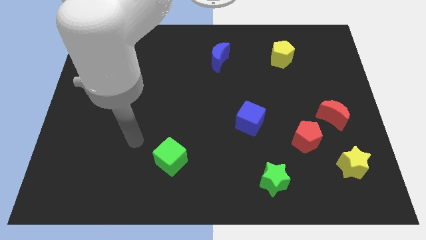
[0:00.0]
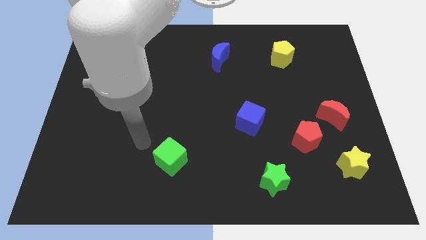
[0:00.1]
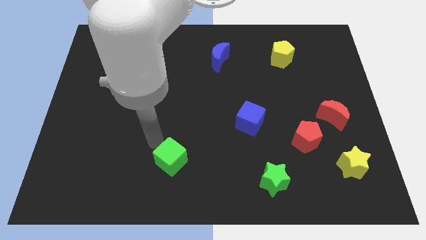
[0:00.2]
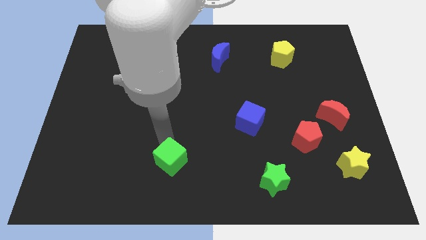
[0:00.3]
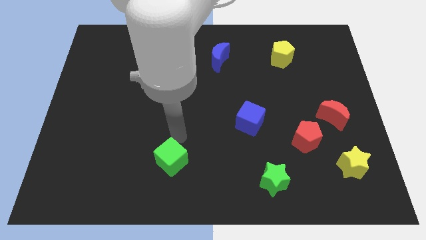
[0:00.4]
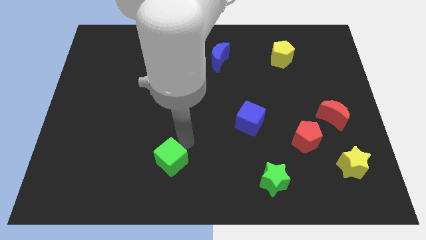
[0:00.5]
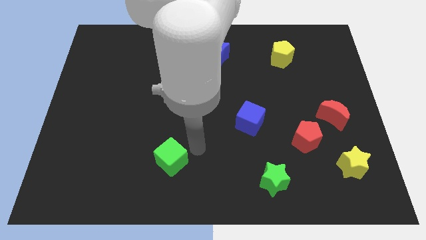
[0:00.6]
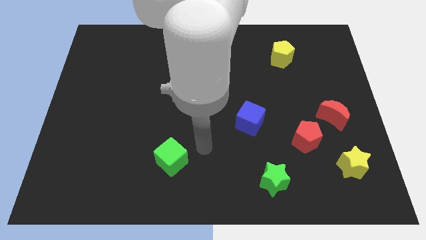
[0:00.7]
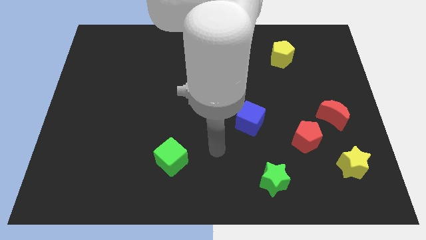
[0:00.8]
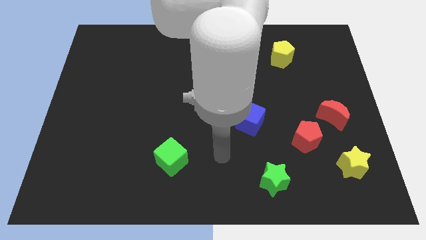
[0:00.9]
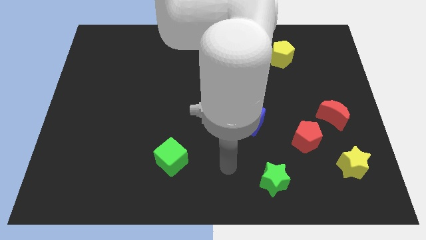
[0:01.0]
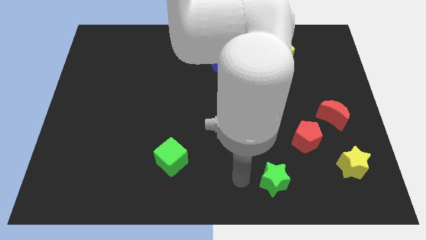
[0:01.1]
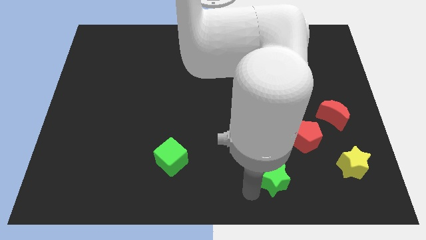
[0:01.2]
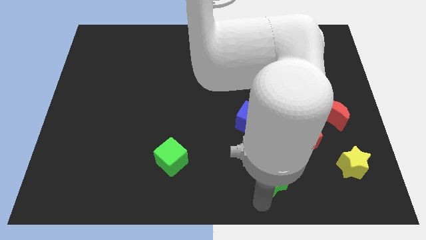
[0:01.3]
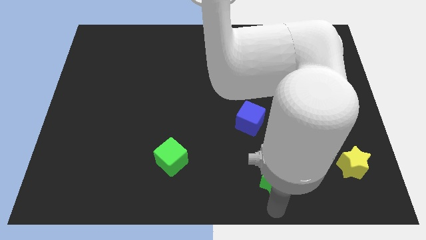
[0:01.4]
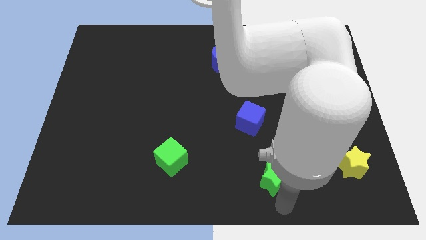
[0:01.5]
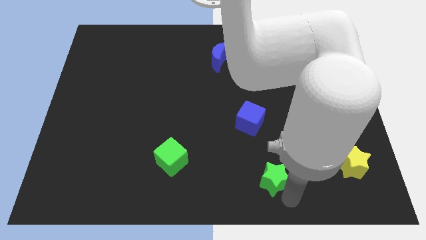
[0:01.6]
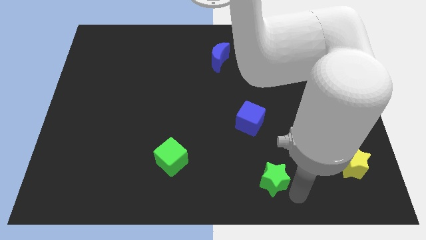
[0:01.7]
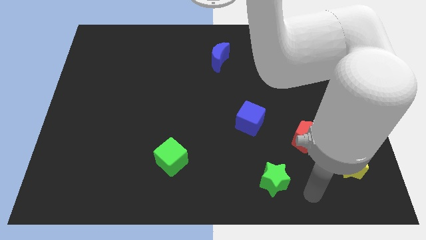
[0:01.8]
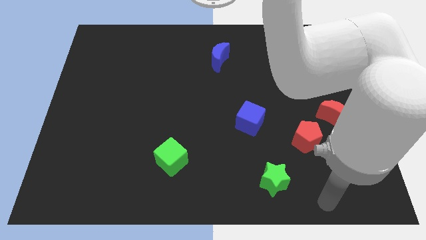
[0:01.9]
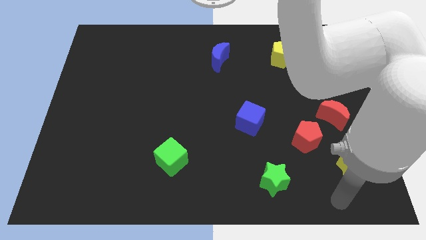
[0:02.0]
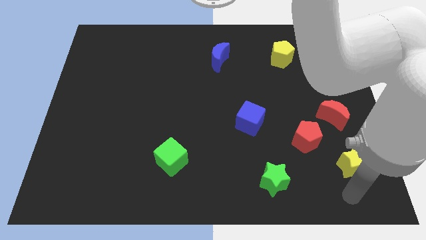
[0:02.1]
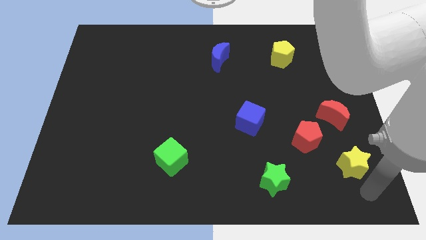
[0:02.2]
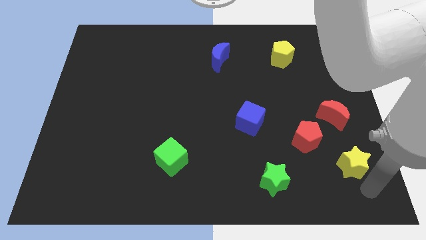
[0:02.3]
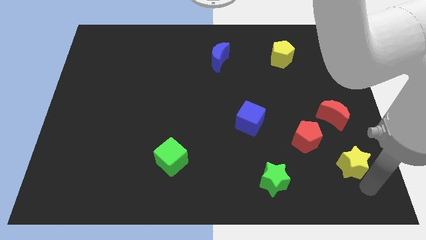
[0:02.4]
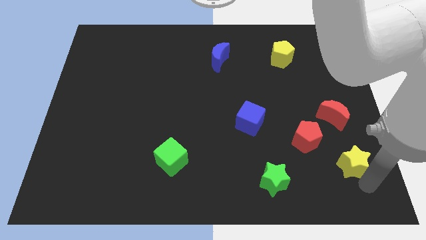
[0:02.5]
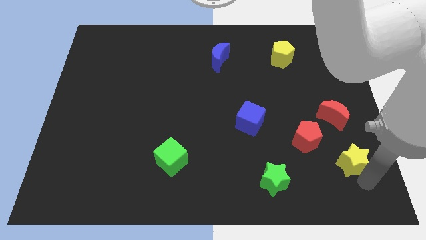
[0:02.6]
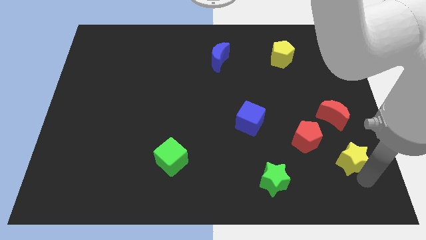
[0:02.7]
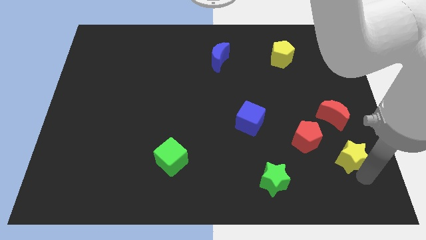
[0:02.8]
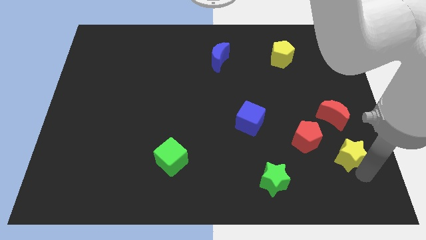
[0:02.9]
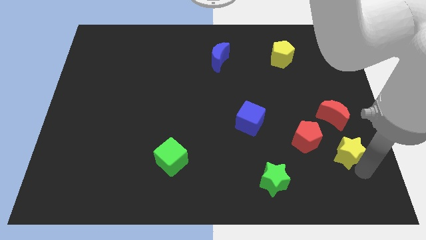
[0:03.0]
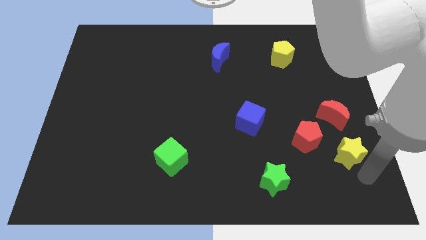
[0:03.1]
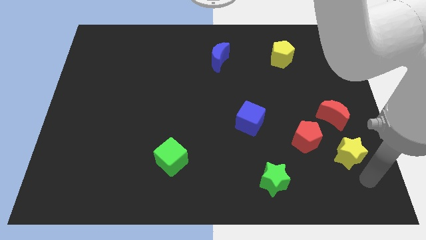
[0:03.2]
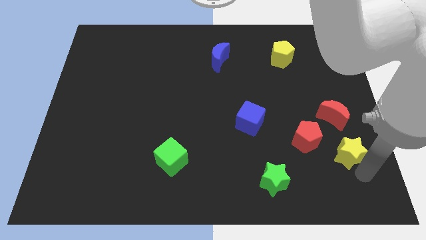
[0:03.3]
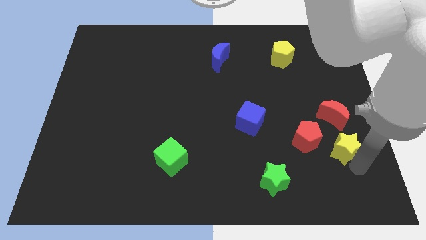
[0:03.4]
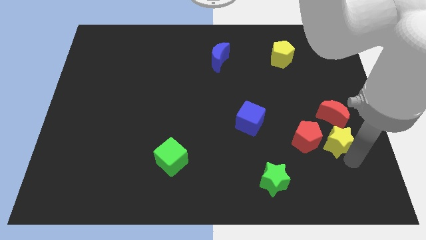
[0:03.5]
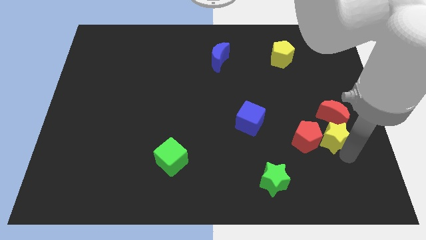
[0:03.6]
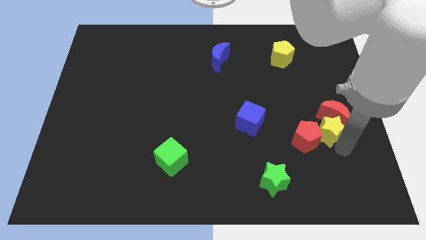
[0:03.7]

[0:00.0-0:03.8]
slide the yellow star diagonally upwards and to the left somewhat

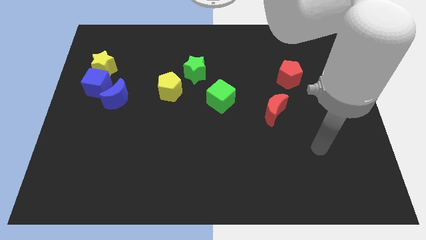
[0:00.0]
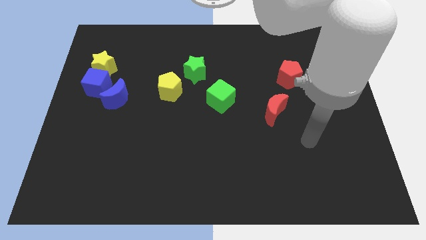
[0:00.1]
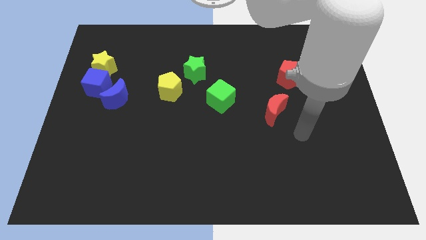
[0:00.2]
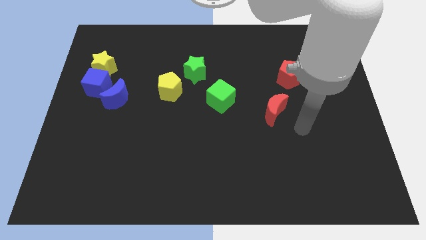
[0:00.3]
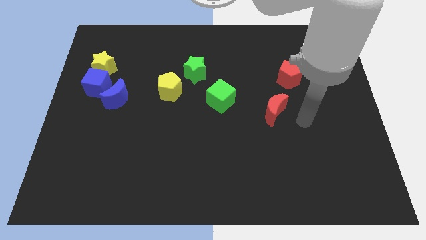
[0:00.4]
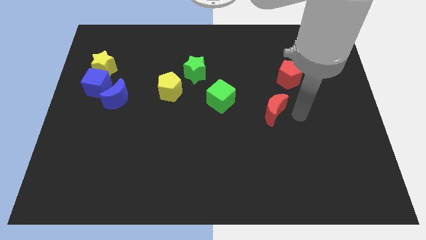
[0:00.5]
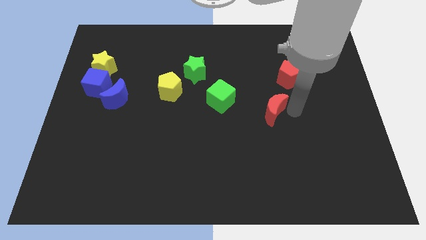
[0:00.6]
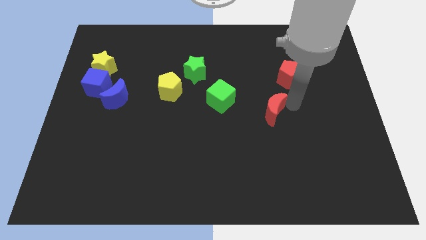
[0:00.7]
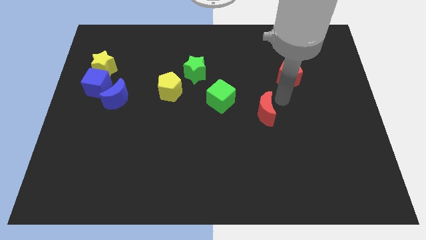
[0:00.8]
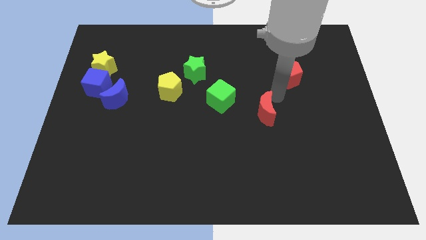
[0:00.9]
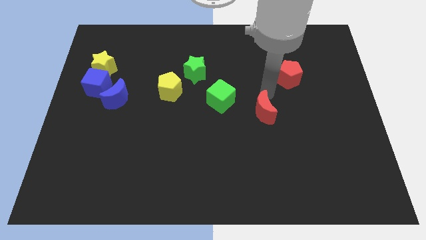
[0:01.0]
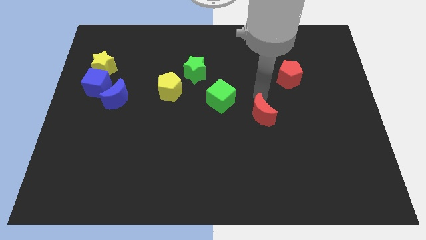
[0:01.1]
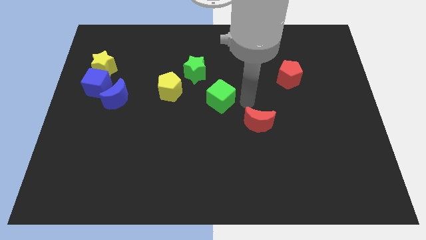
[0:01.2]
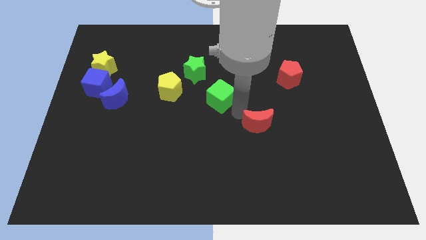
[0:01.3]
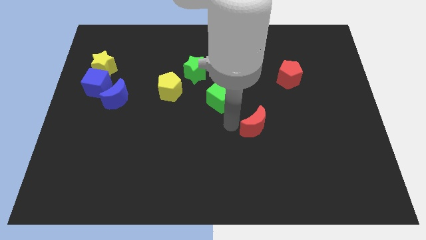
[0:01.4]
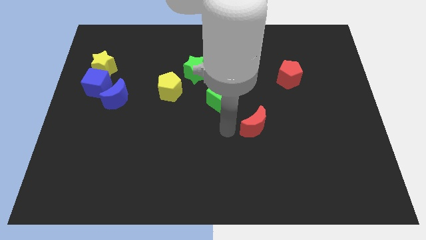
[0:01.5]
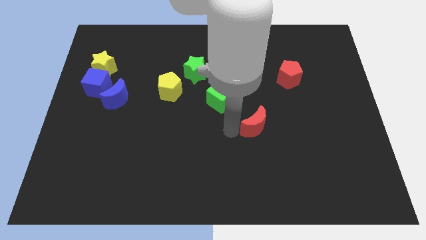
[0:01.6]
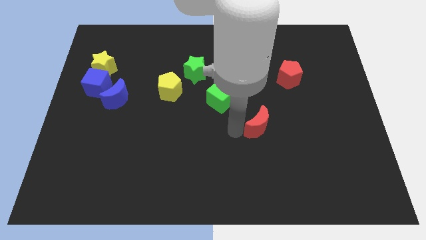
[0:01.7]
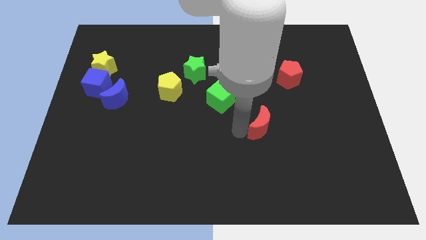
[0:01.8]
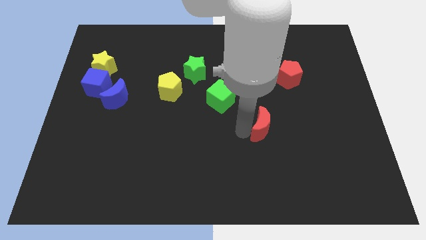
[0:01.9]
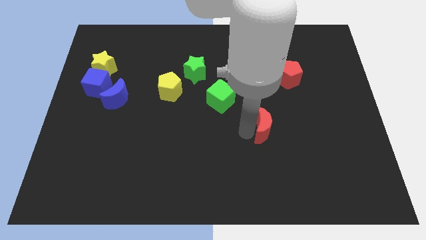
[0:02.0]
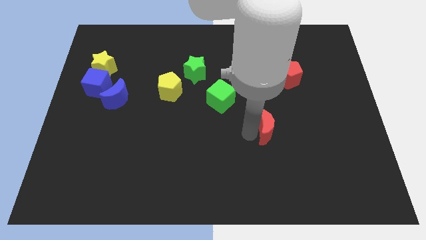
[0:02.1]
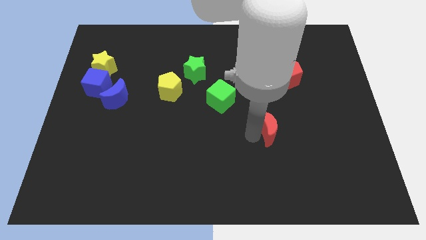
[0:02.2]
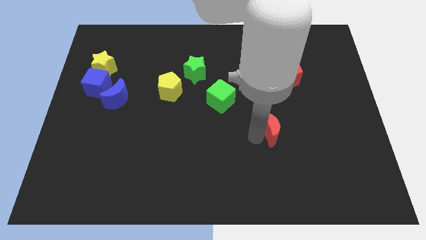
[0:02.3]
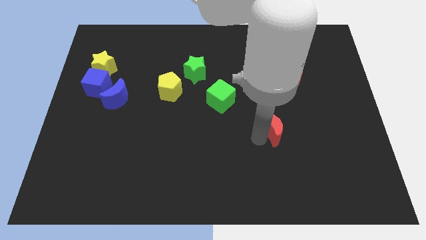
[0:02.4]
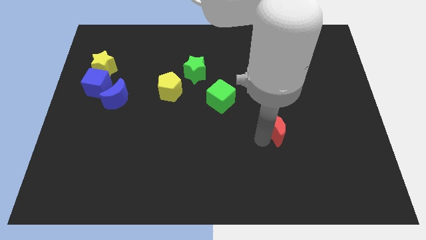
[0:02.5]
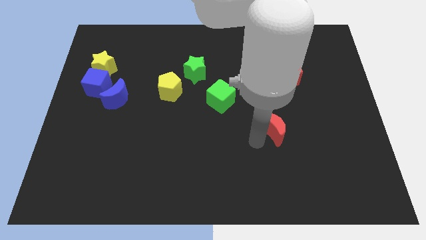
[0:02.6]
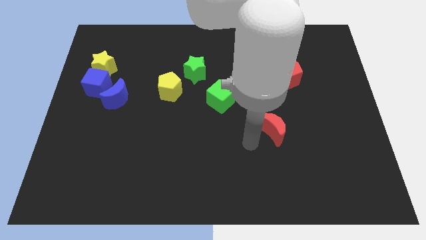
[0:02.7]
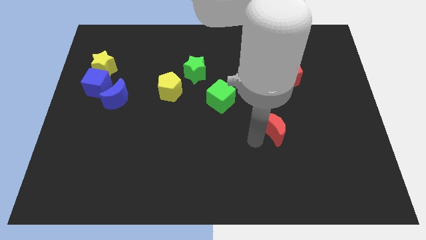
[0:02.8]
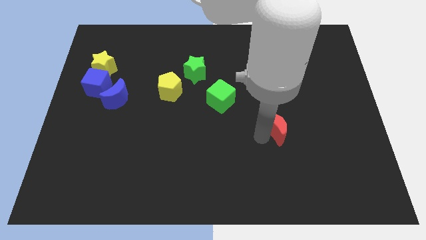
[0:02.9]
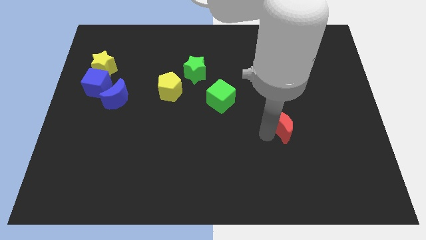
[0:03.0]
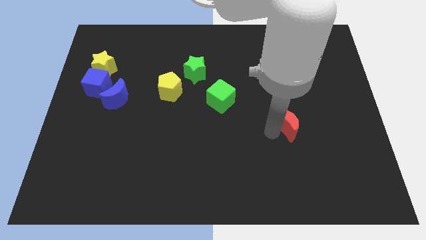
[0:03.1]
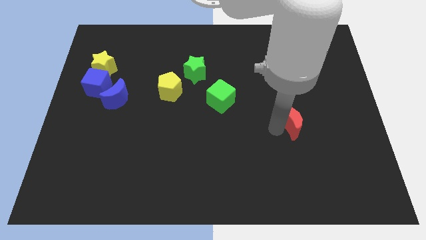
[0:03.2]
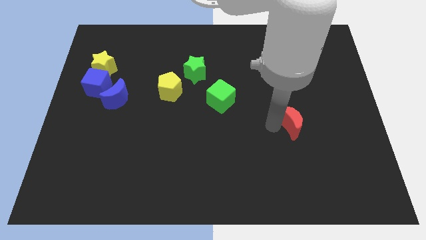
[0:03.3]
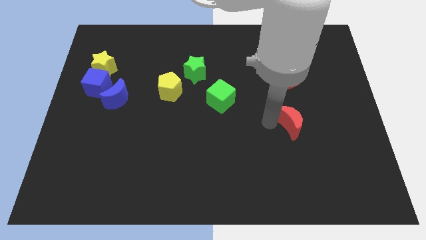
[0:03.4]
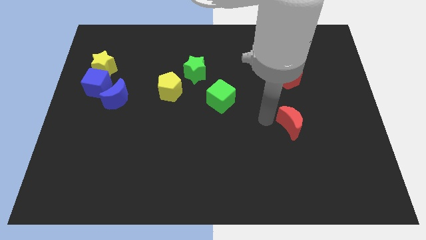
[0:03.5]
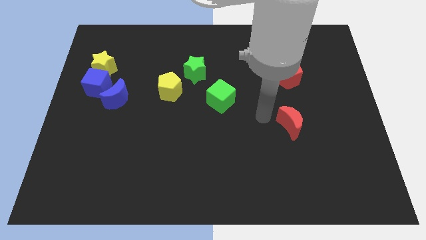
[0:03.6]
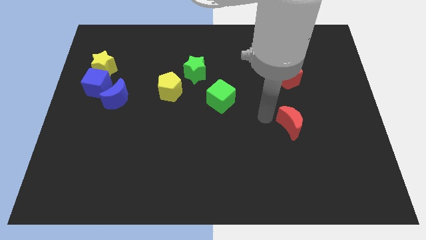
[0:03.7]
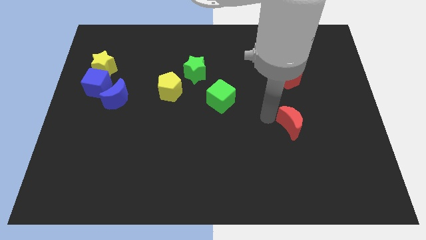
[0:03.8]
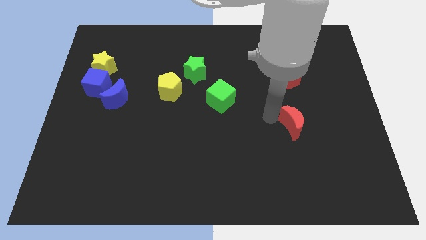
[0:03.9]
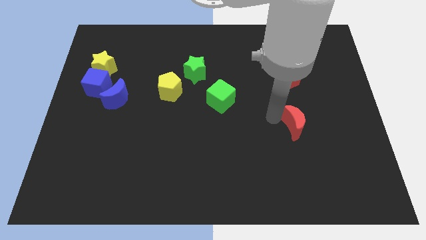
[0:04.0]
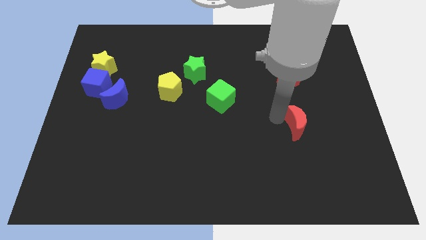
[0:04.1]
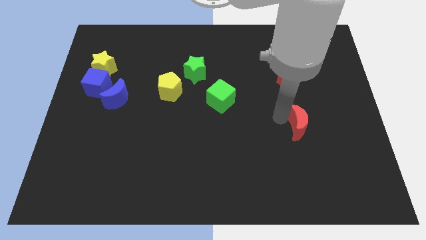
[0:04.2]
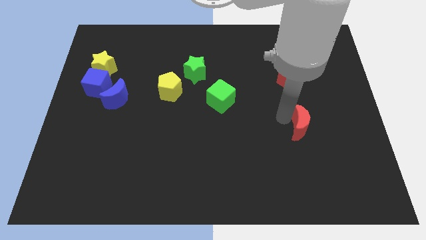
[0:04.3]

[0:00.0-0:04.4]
push the red moon down and right a bit
